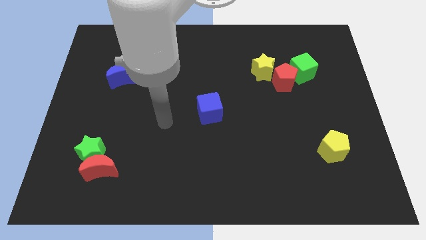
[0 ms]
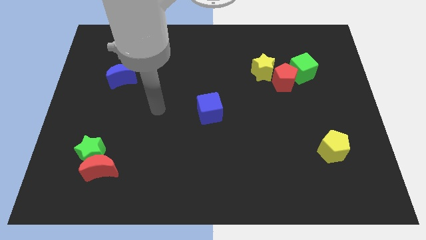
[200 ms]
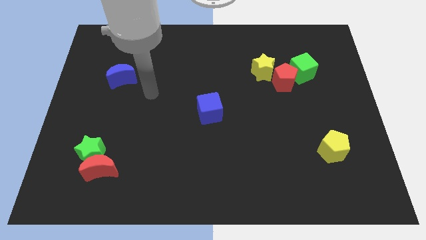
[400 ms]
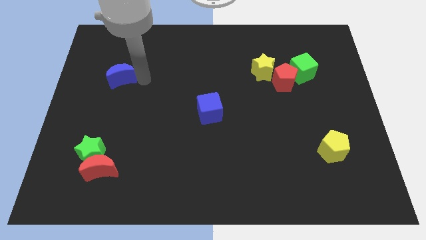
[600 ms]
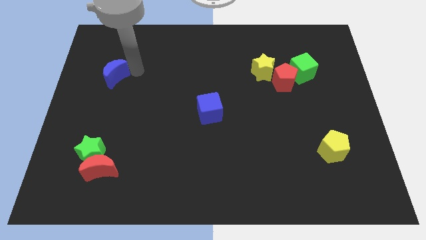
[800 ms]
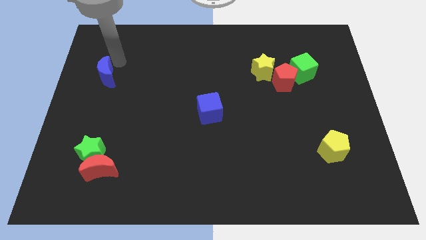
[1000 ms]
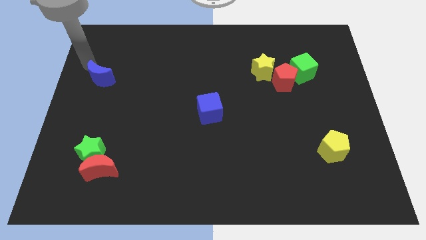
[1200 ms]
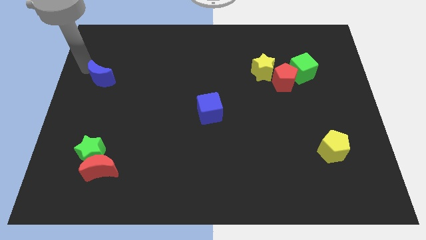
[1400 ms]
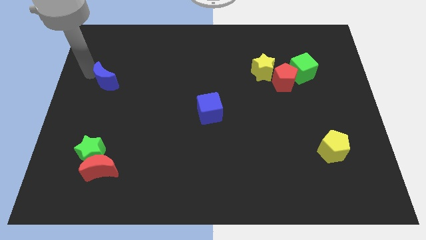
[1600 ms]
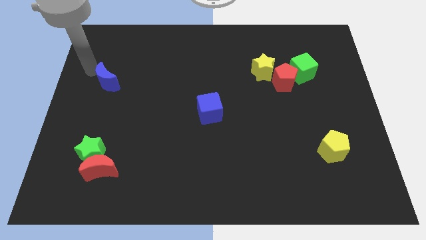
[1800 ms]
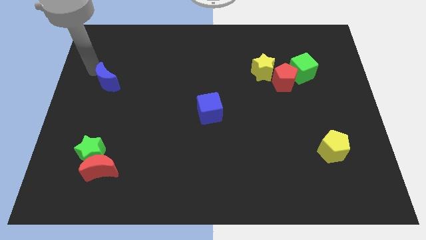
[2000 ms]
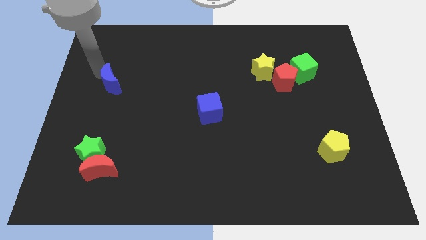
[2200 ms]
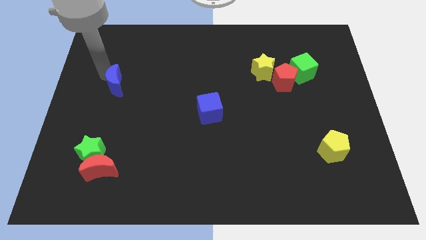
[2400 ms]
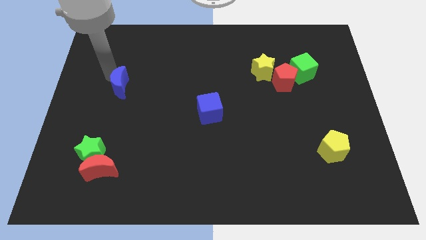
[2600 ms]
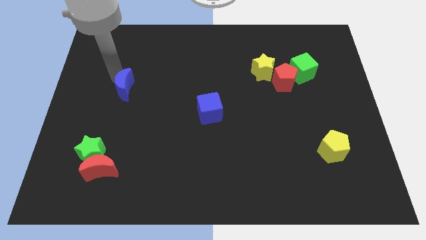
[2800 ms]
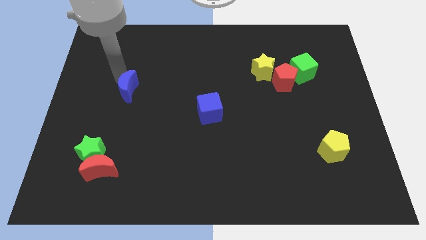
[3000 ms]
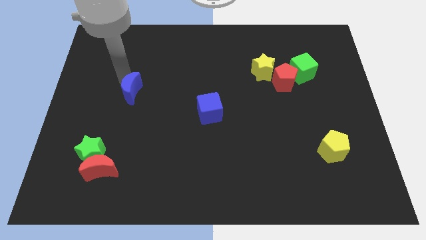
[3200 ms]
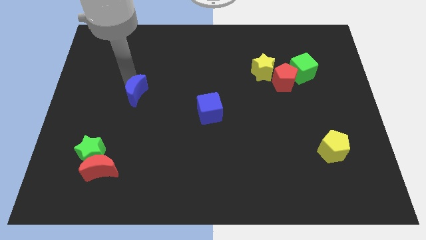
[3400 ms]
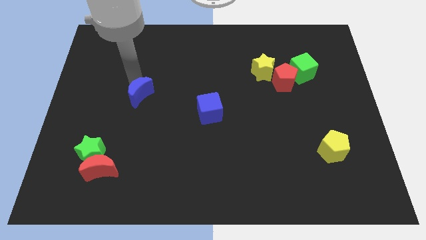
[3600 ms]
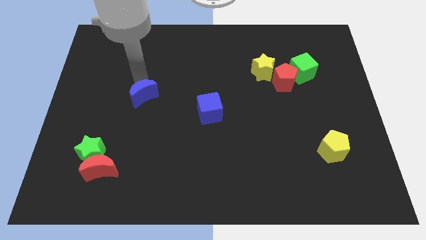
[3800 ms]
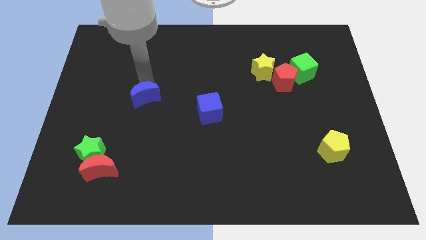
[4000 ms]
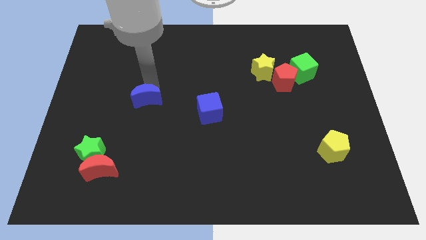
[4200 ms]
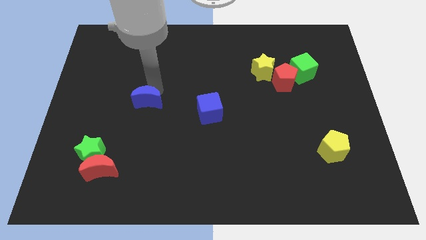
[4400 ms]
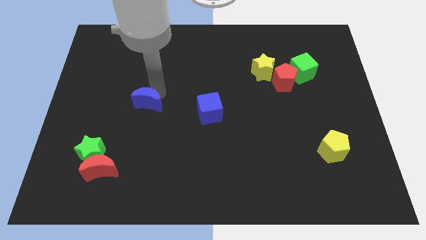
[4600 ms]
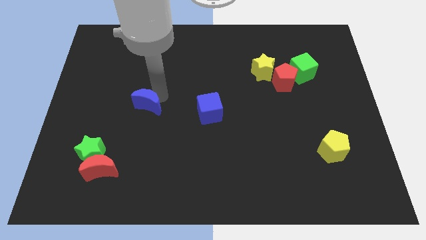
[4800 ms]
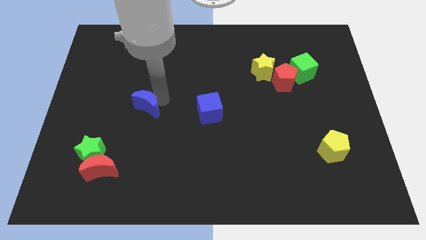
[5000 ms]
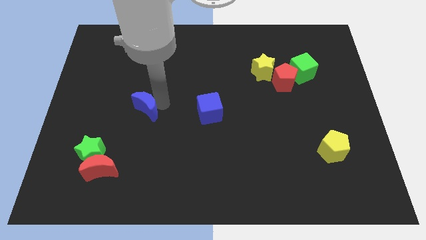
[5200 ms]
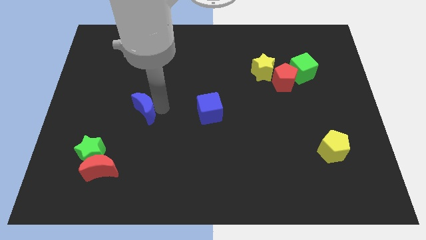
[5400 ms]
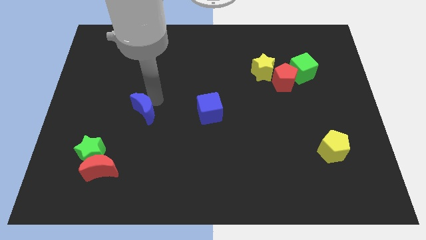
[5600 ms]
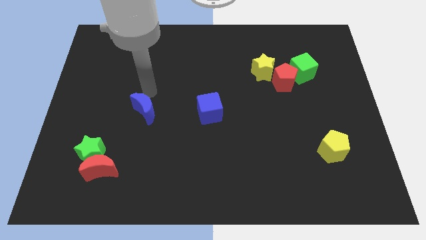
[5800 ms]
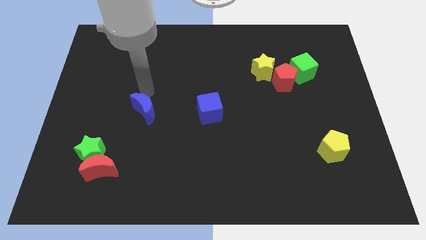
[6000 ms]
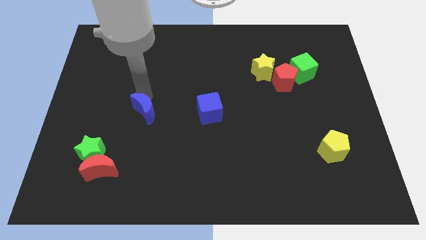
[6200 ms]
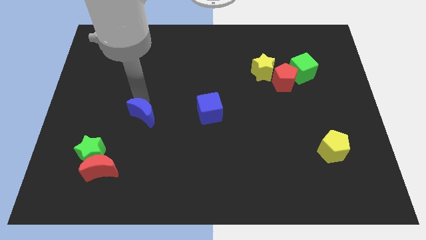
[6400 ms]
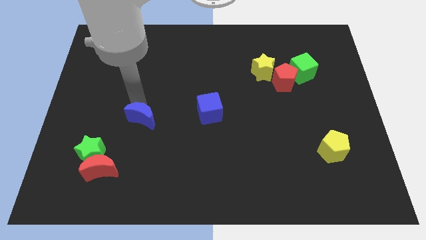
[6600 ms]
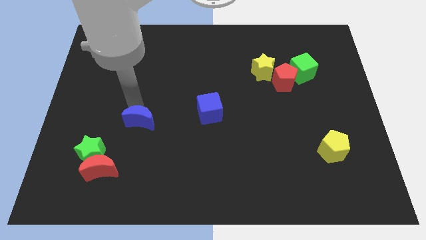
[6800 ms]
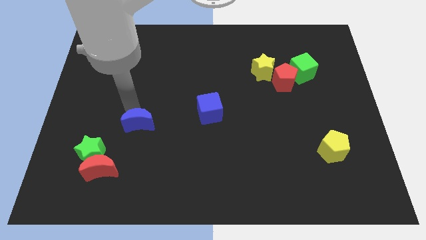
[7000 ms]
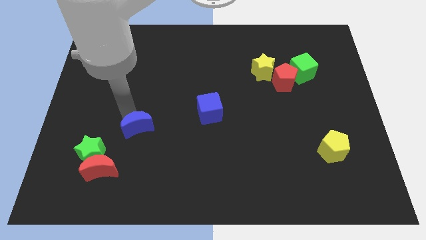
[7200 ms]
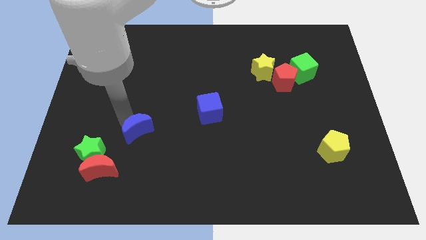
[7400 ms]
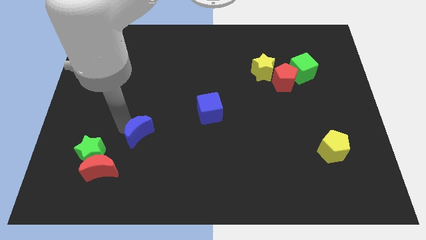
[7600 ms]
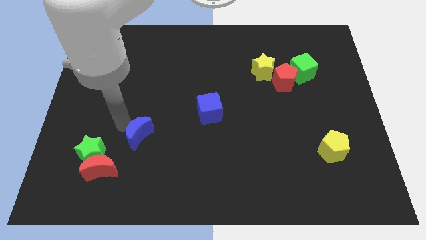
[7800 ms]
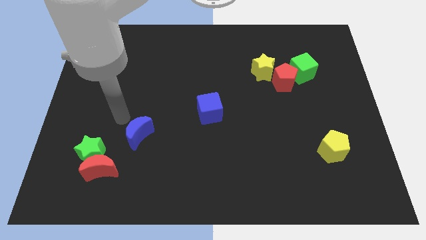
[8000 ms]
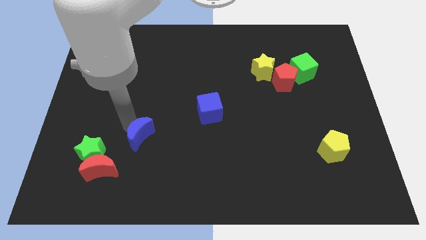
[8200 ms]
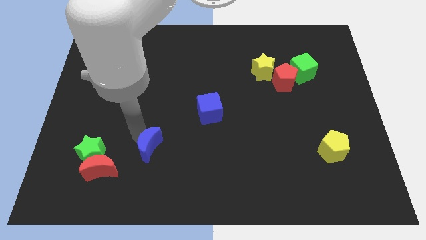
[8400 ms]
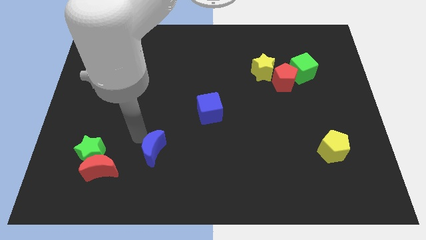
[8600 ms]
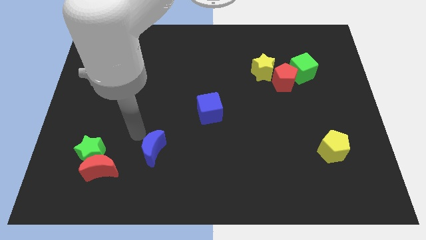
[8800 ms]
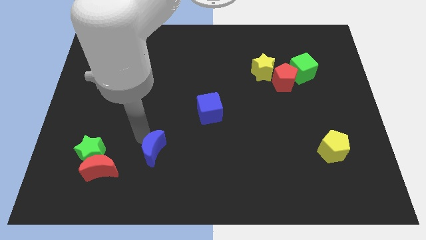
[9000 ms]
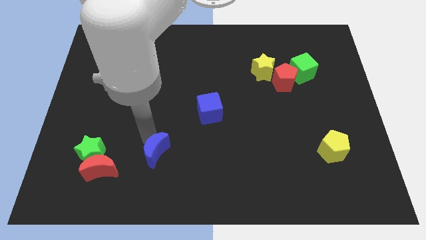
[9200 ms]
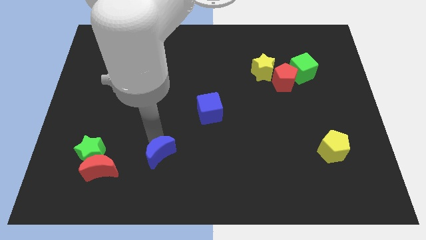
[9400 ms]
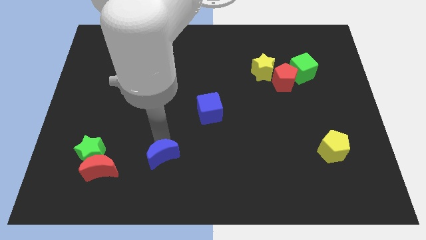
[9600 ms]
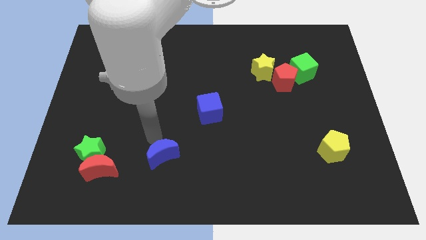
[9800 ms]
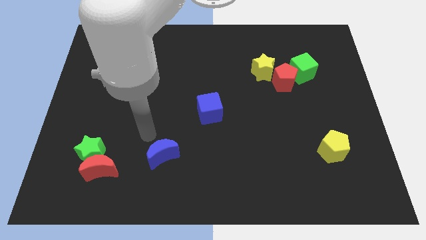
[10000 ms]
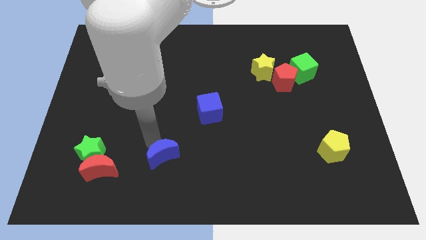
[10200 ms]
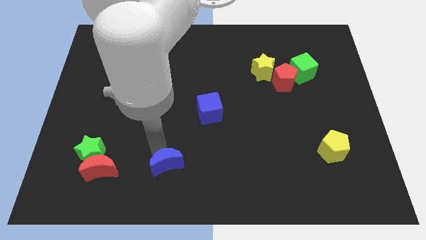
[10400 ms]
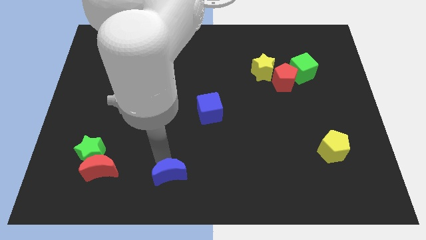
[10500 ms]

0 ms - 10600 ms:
put the blue moon to the bottom side

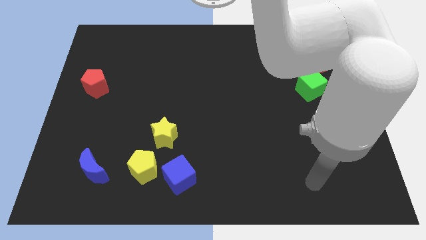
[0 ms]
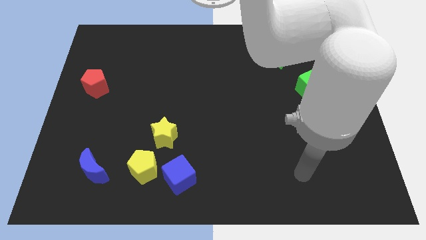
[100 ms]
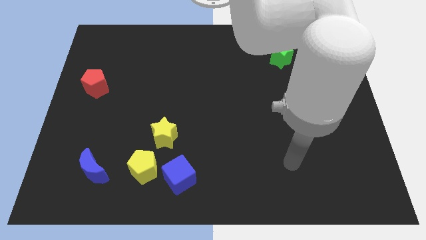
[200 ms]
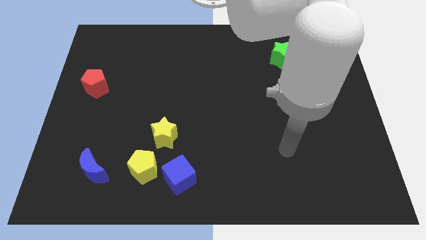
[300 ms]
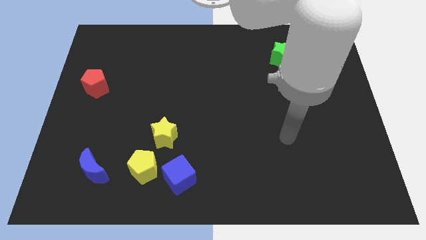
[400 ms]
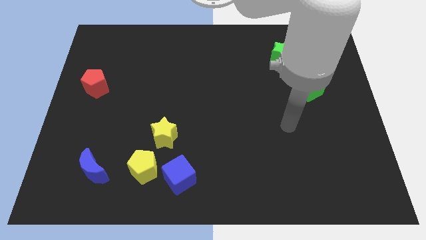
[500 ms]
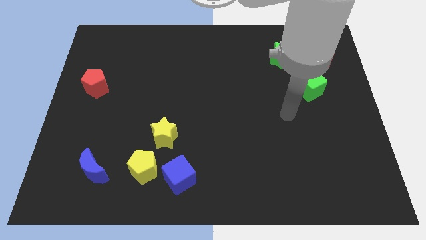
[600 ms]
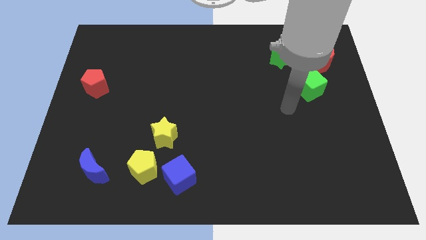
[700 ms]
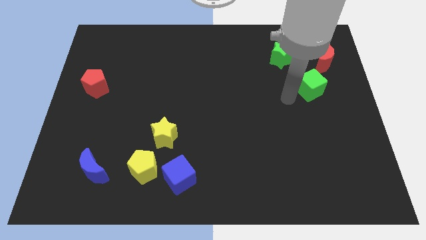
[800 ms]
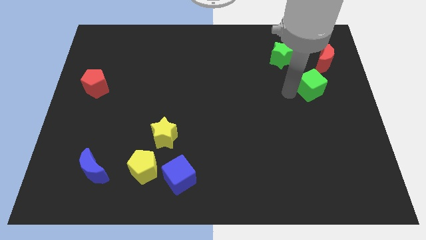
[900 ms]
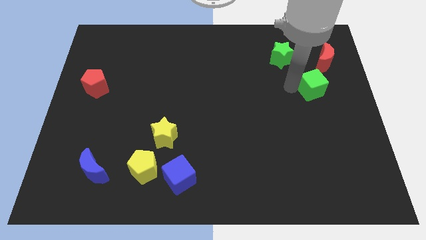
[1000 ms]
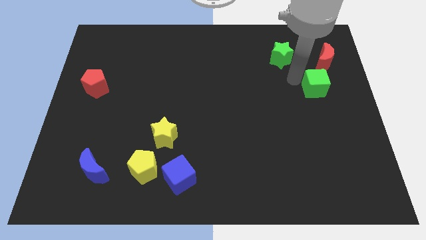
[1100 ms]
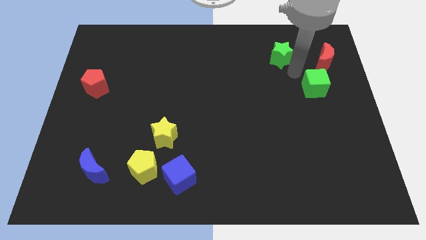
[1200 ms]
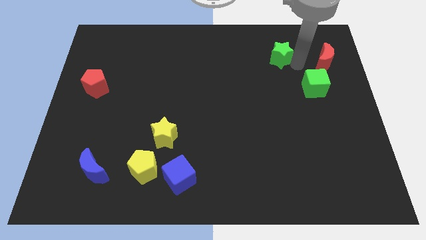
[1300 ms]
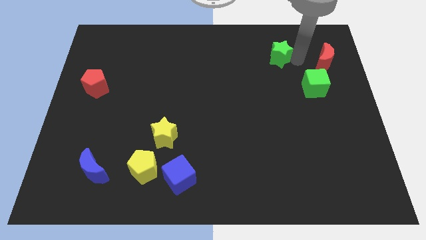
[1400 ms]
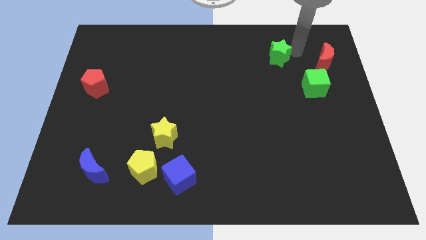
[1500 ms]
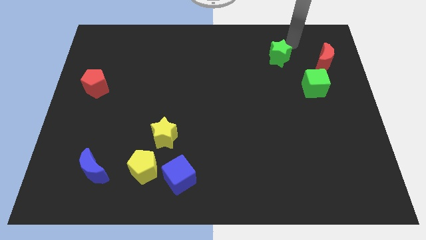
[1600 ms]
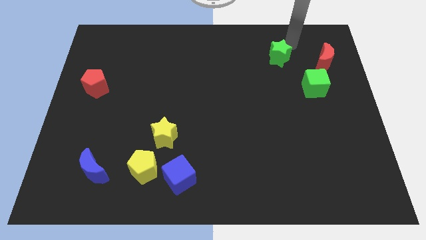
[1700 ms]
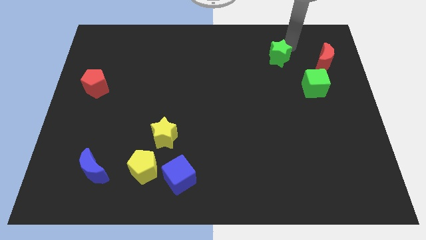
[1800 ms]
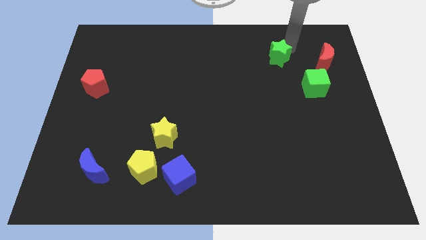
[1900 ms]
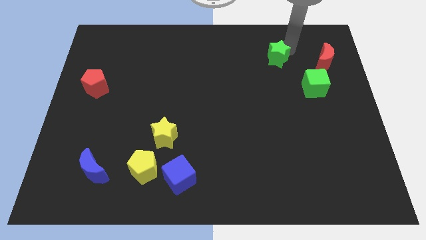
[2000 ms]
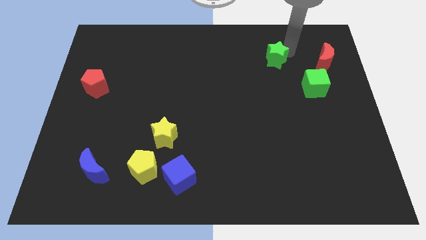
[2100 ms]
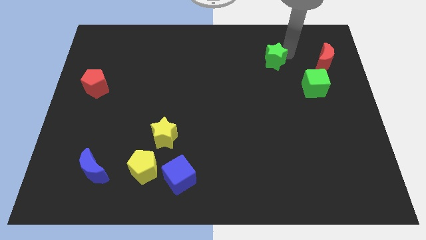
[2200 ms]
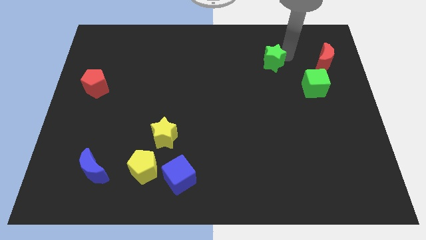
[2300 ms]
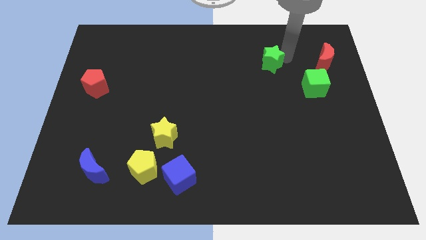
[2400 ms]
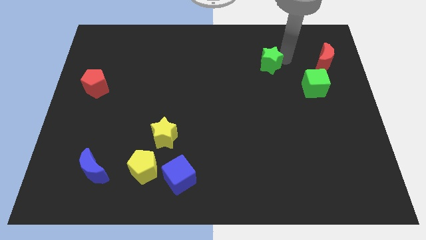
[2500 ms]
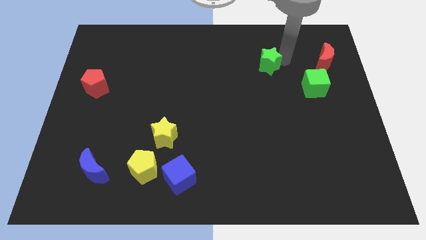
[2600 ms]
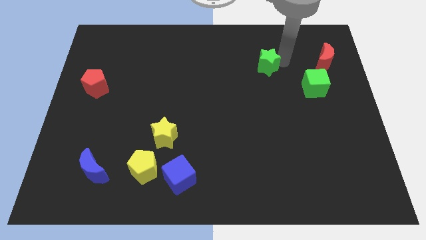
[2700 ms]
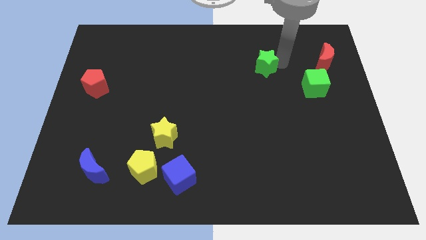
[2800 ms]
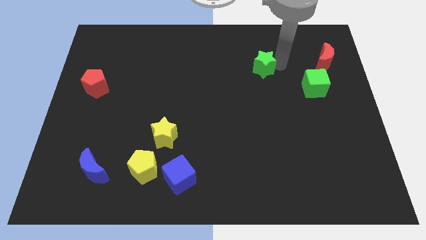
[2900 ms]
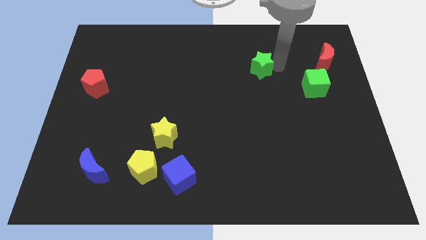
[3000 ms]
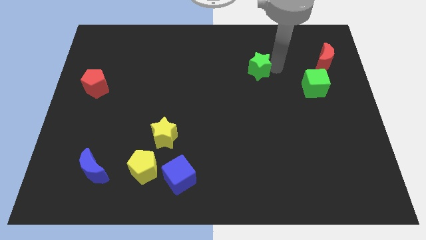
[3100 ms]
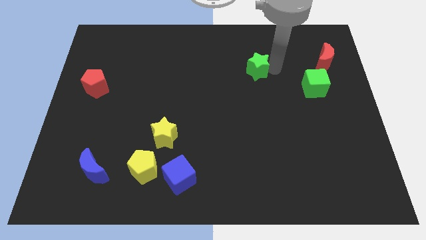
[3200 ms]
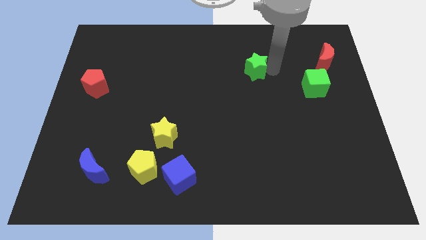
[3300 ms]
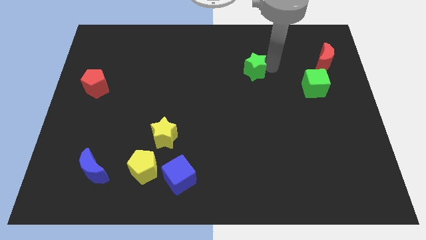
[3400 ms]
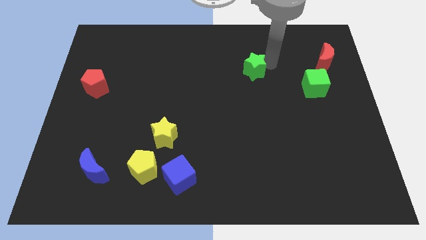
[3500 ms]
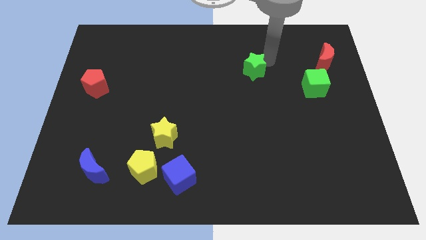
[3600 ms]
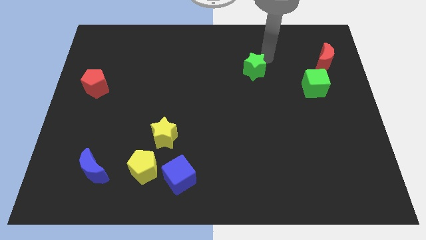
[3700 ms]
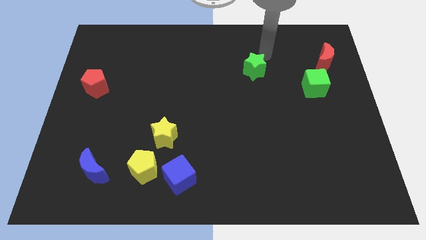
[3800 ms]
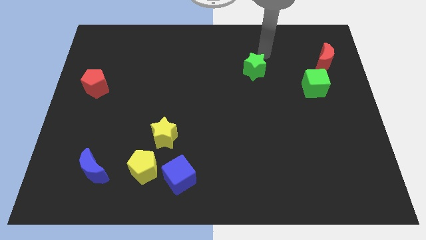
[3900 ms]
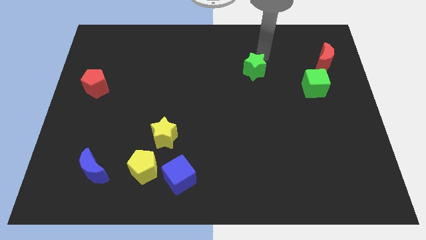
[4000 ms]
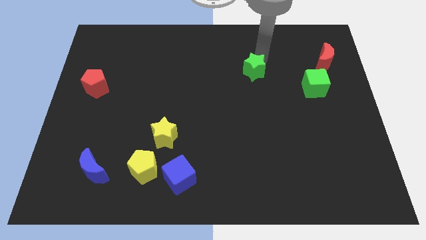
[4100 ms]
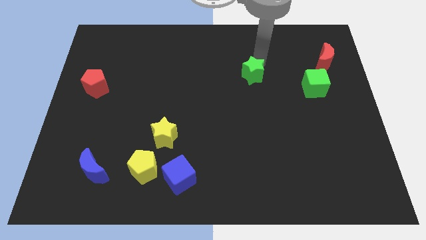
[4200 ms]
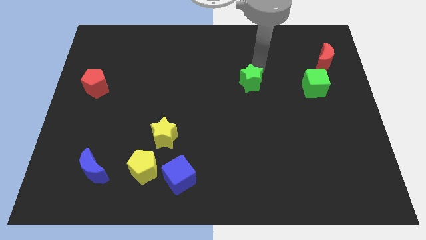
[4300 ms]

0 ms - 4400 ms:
put the green star to the middle
